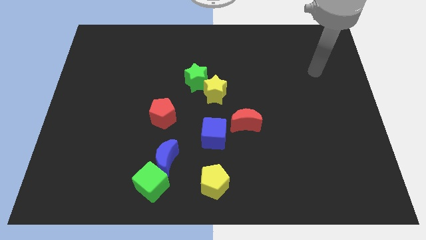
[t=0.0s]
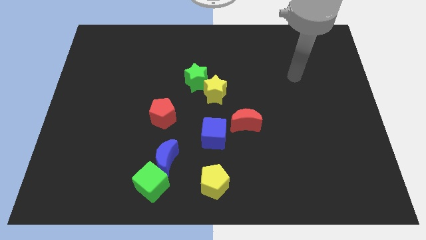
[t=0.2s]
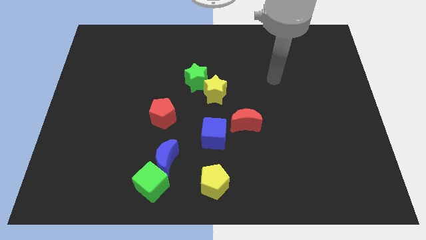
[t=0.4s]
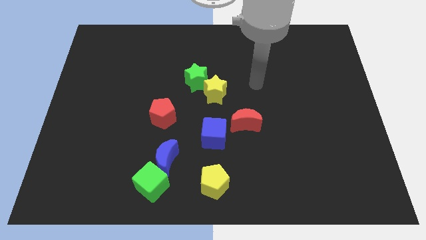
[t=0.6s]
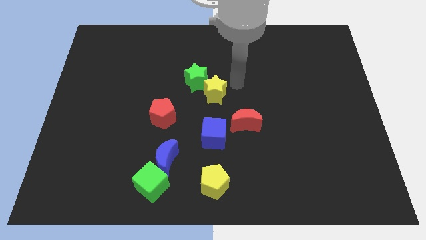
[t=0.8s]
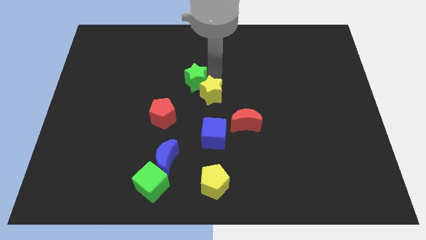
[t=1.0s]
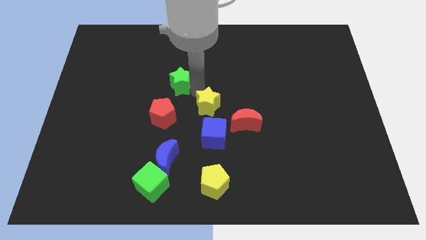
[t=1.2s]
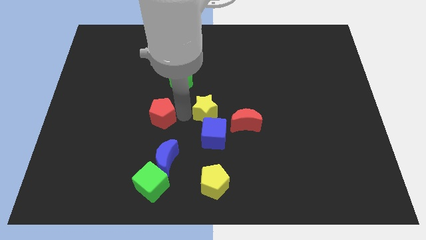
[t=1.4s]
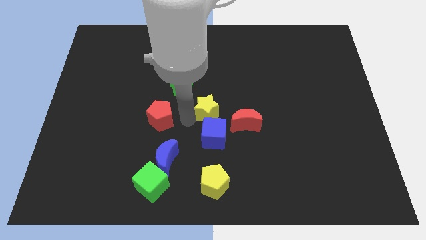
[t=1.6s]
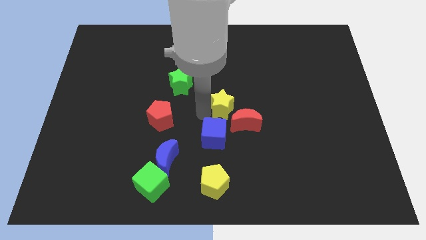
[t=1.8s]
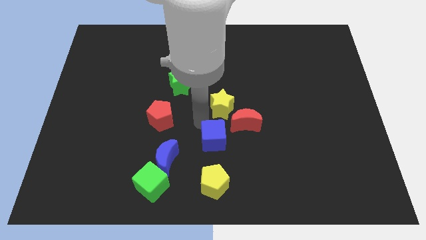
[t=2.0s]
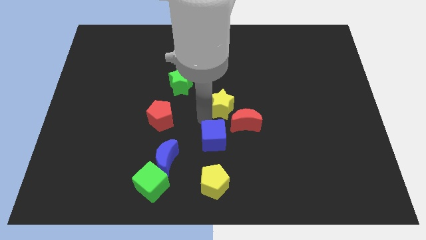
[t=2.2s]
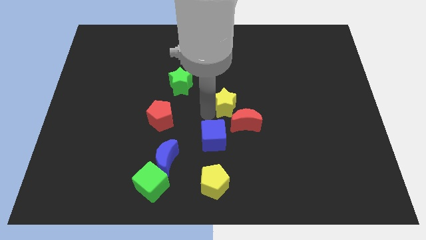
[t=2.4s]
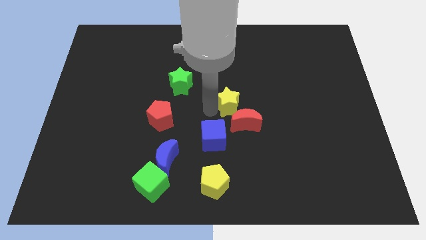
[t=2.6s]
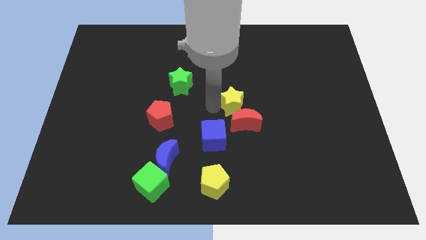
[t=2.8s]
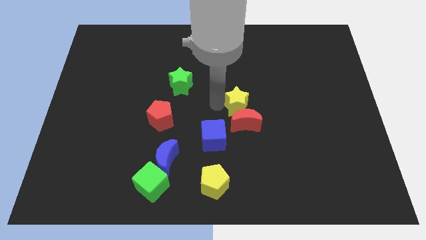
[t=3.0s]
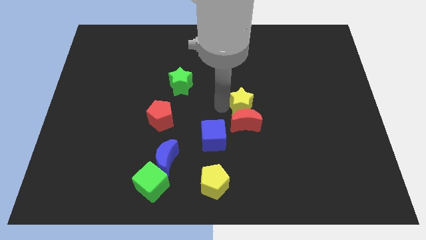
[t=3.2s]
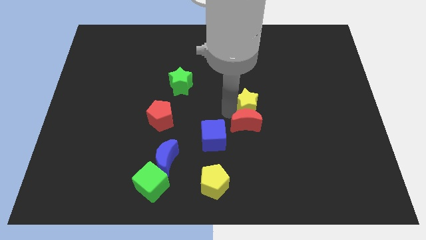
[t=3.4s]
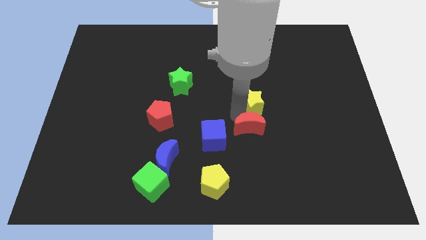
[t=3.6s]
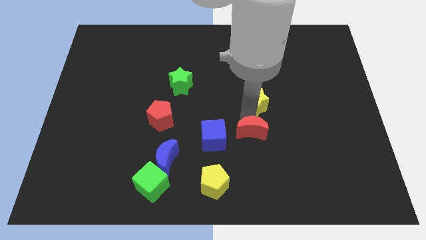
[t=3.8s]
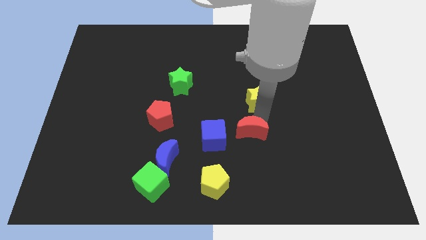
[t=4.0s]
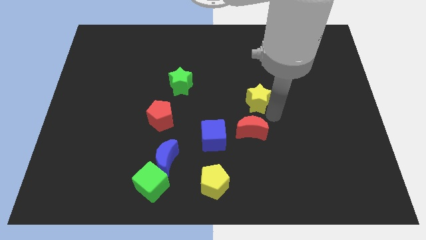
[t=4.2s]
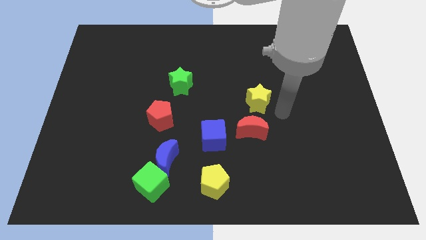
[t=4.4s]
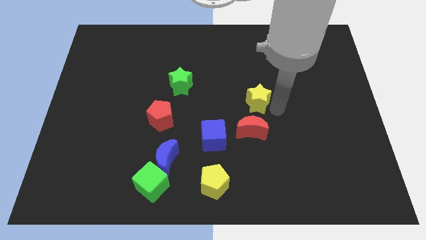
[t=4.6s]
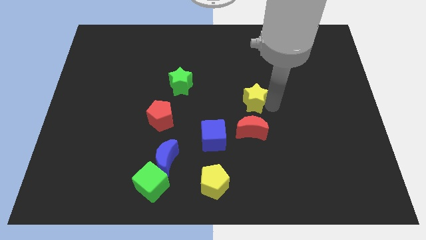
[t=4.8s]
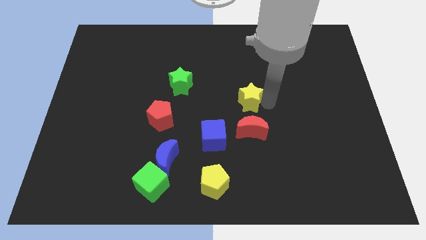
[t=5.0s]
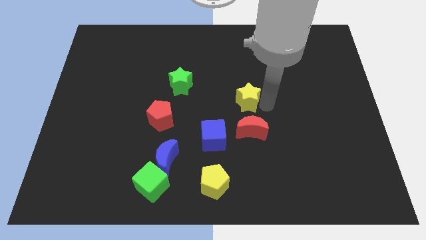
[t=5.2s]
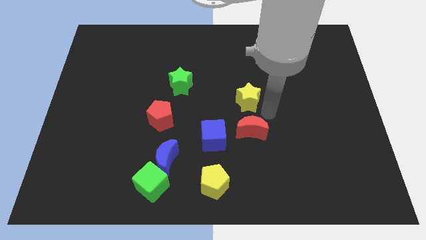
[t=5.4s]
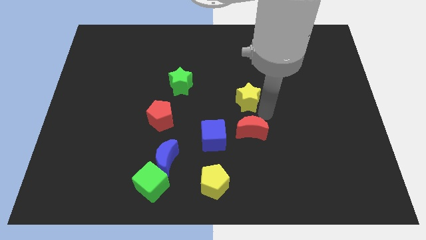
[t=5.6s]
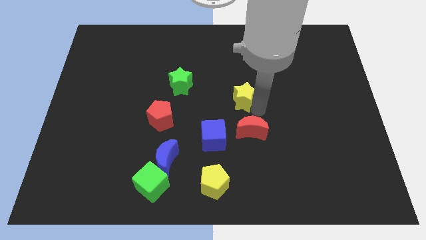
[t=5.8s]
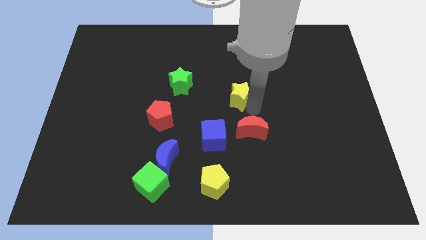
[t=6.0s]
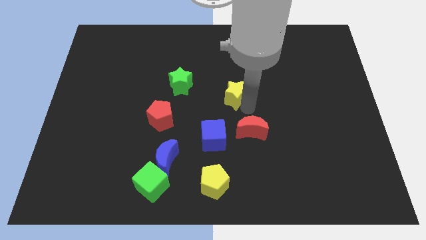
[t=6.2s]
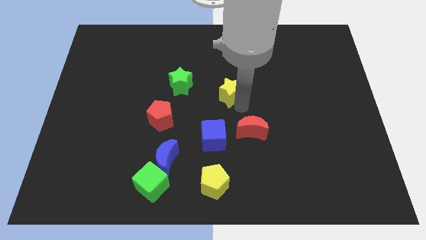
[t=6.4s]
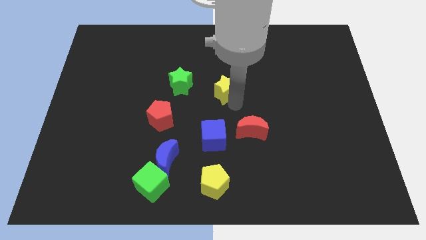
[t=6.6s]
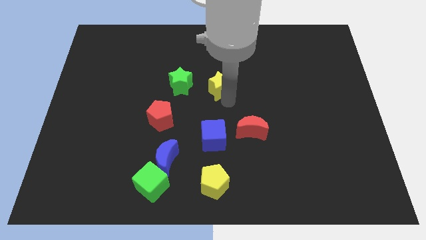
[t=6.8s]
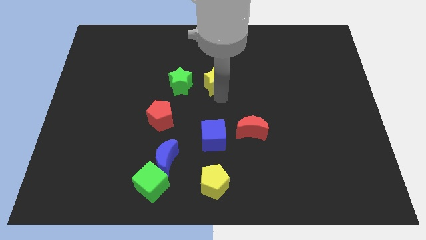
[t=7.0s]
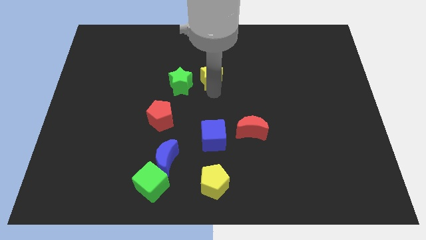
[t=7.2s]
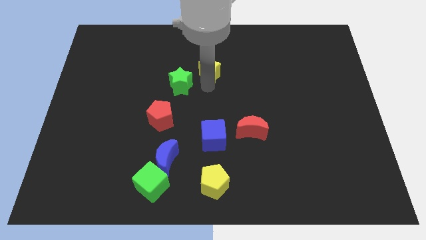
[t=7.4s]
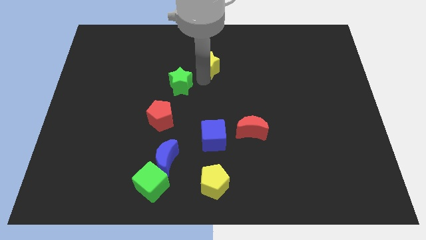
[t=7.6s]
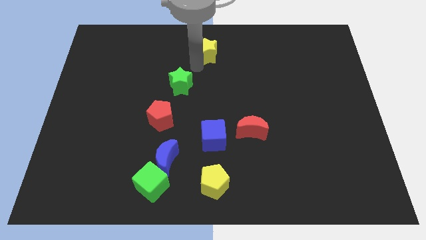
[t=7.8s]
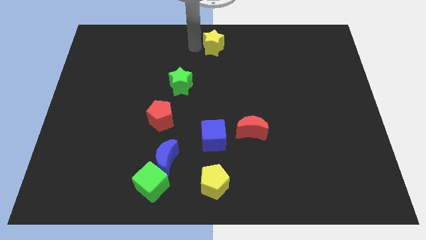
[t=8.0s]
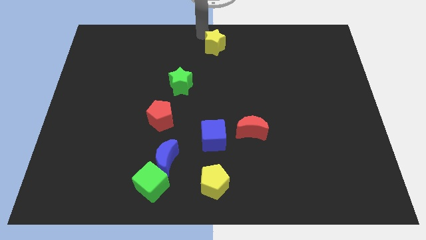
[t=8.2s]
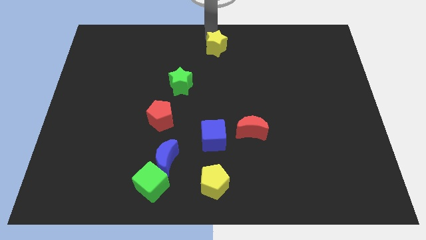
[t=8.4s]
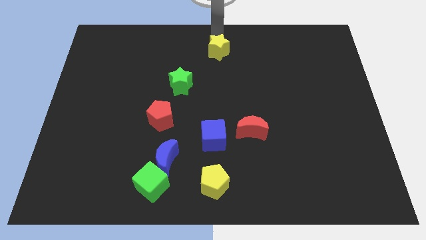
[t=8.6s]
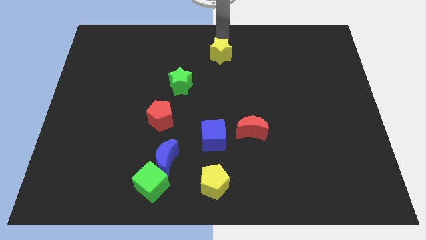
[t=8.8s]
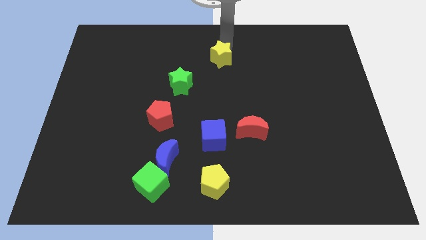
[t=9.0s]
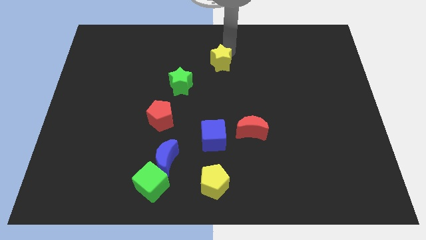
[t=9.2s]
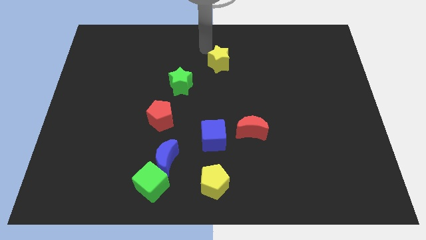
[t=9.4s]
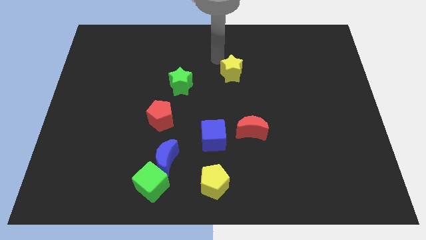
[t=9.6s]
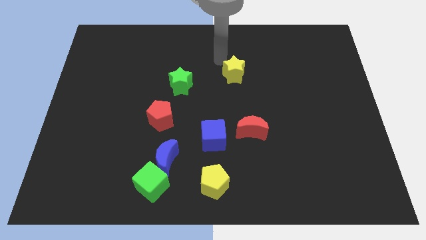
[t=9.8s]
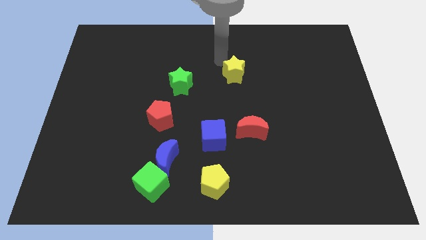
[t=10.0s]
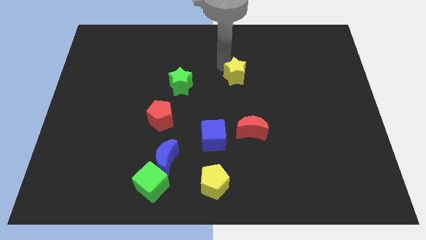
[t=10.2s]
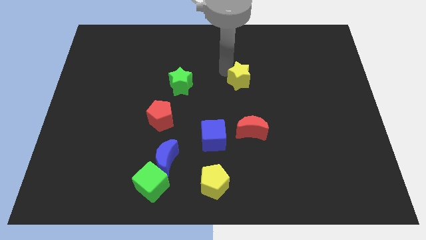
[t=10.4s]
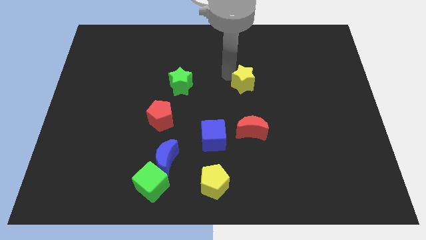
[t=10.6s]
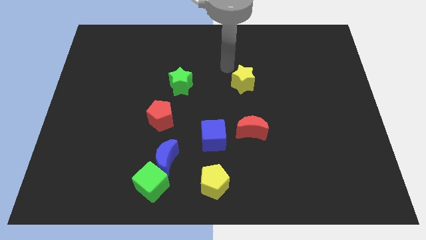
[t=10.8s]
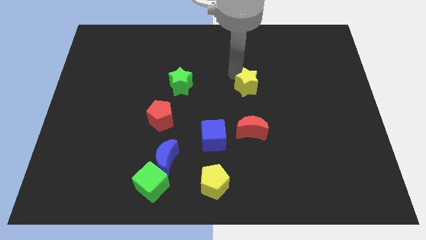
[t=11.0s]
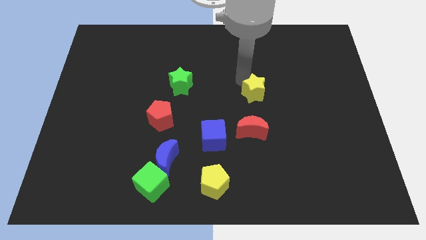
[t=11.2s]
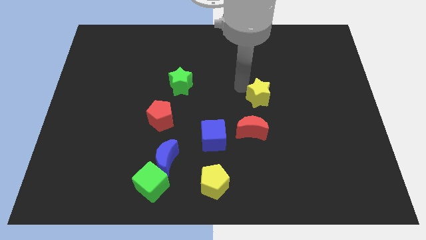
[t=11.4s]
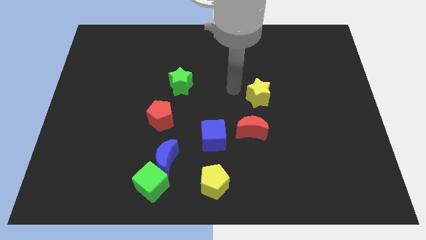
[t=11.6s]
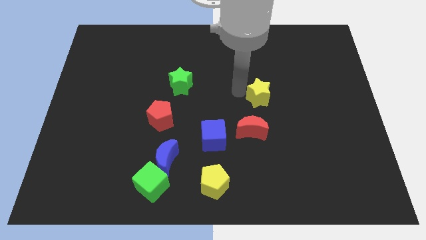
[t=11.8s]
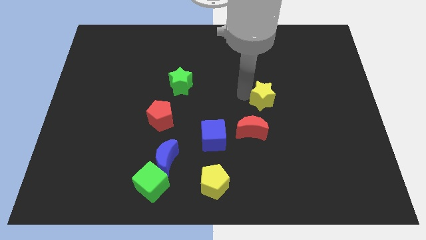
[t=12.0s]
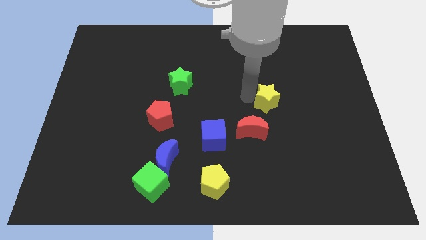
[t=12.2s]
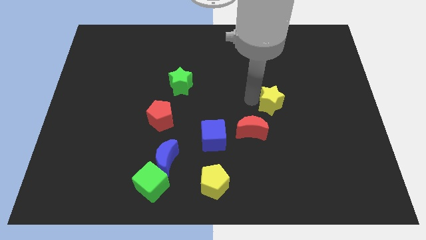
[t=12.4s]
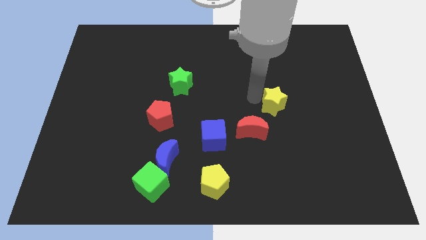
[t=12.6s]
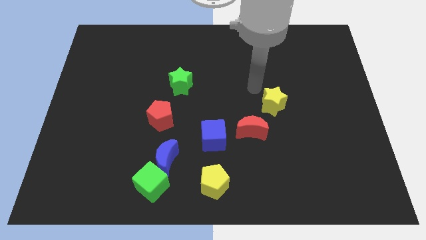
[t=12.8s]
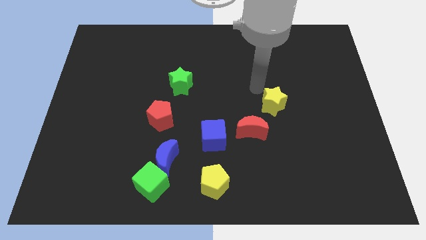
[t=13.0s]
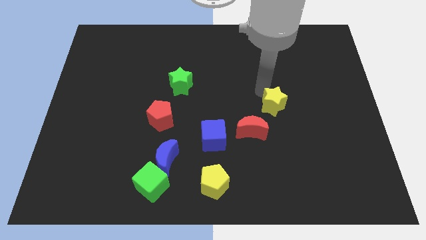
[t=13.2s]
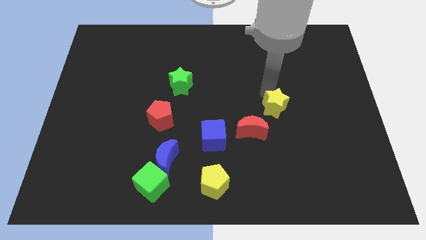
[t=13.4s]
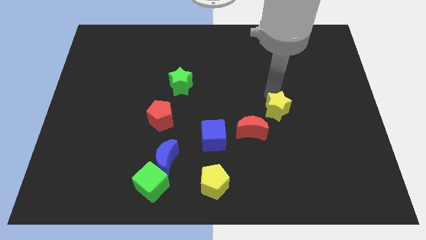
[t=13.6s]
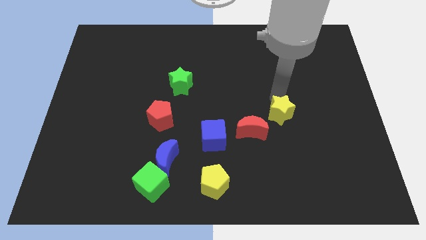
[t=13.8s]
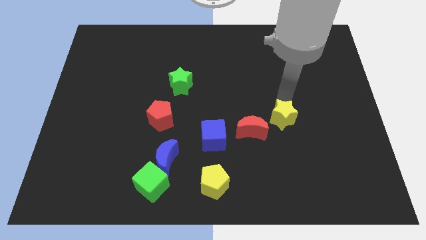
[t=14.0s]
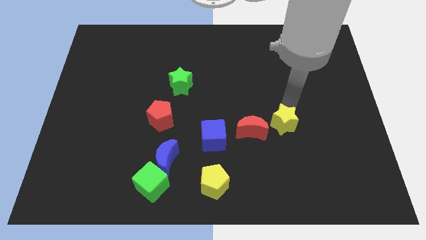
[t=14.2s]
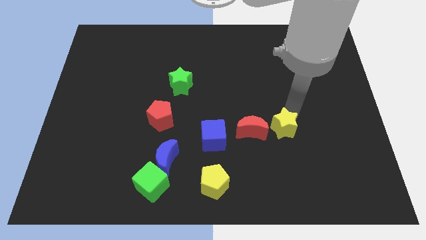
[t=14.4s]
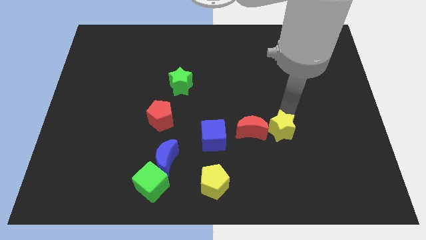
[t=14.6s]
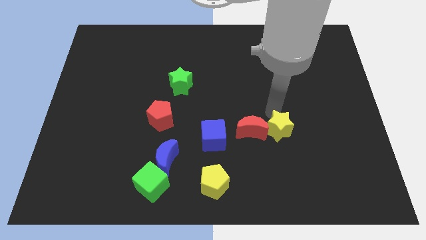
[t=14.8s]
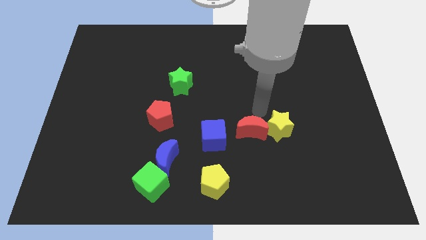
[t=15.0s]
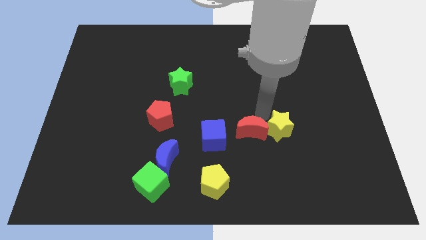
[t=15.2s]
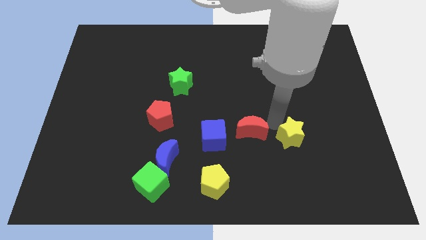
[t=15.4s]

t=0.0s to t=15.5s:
slide the yellow star diagonally downwards and right

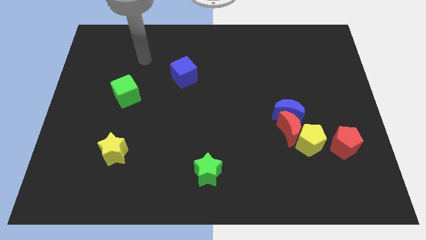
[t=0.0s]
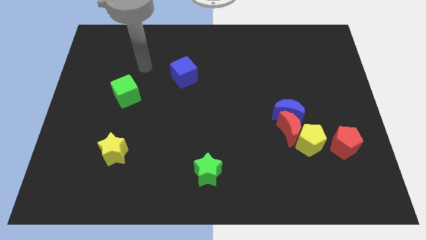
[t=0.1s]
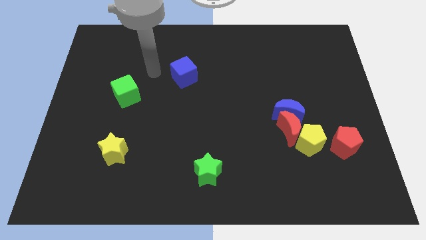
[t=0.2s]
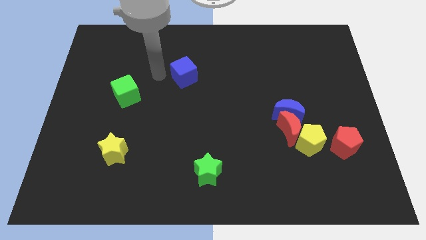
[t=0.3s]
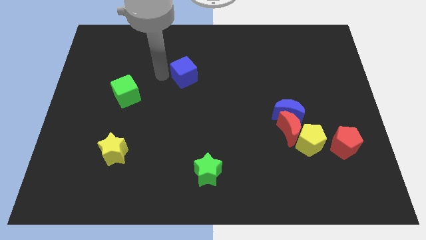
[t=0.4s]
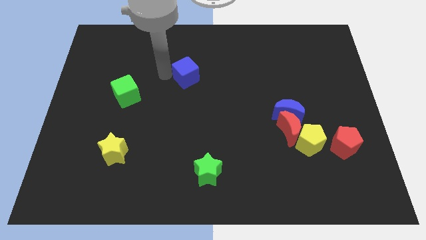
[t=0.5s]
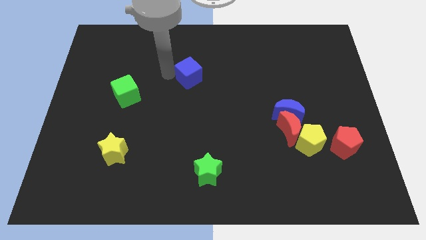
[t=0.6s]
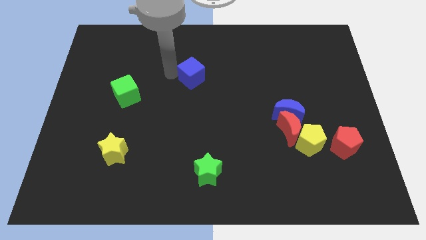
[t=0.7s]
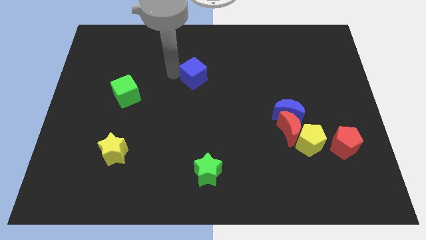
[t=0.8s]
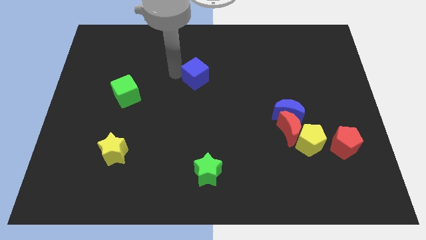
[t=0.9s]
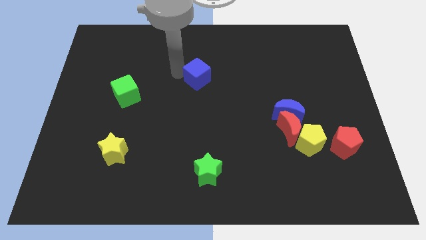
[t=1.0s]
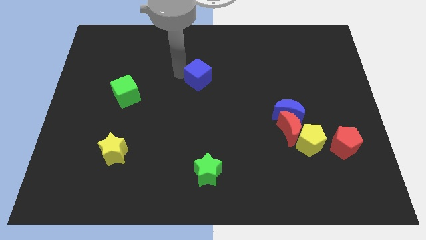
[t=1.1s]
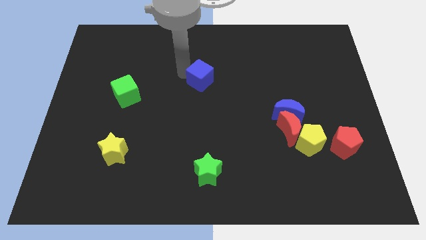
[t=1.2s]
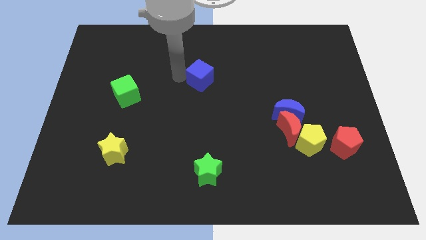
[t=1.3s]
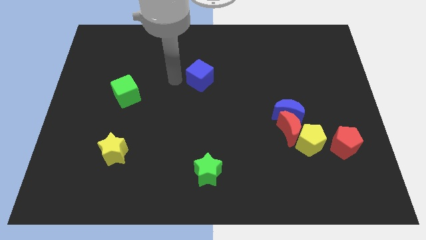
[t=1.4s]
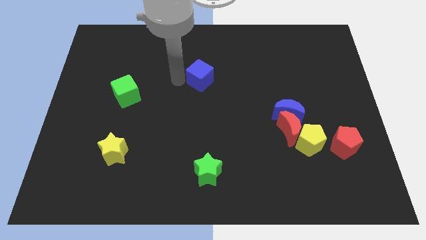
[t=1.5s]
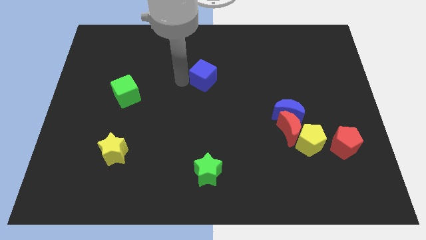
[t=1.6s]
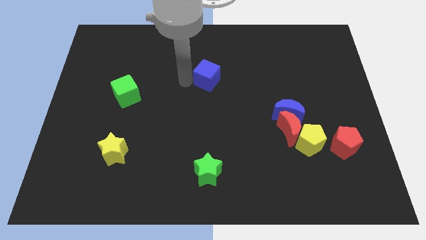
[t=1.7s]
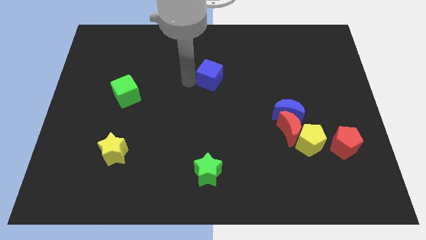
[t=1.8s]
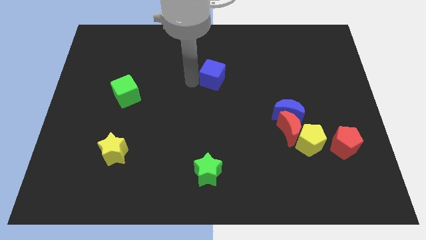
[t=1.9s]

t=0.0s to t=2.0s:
slightly push the blue cube to the right
